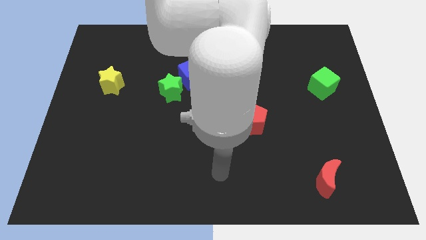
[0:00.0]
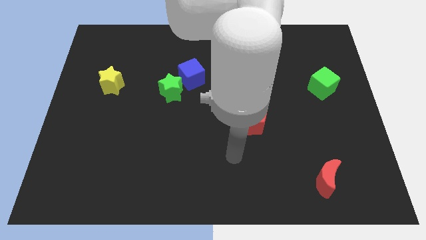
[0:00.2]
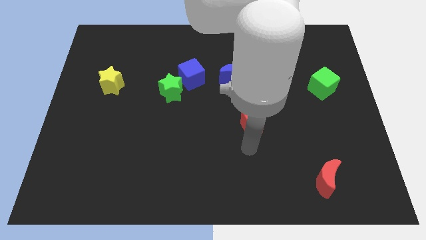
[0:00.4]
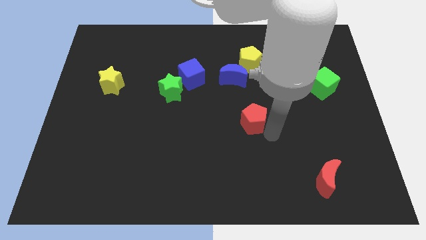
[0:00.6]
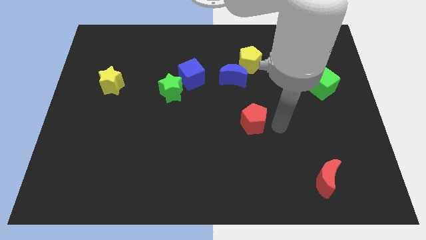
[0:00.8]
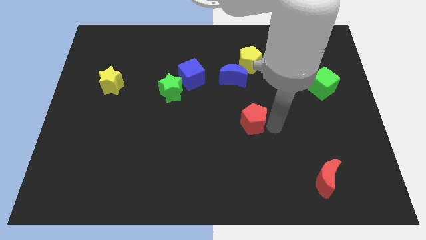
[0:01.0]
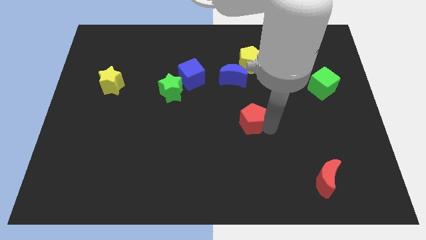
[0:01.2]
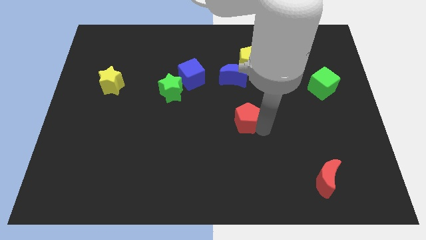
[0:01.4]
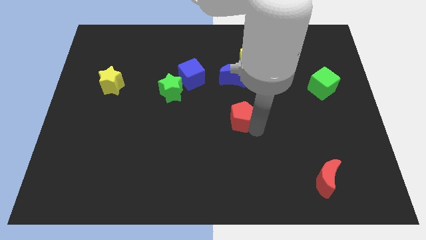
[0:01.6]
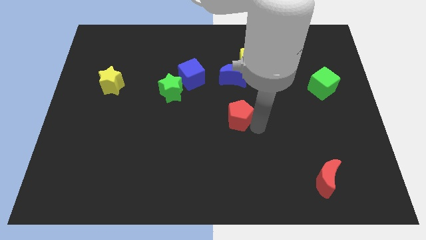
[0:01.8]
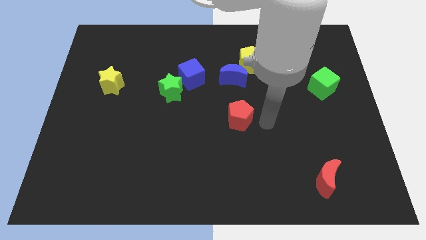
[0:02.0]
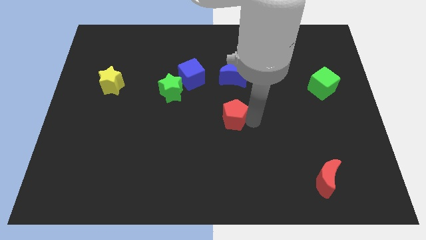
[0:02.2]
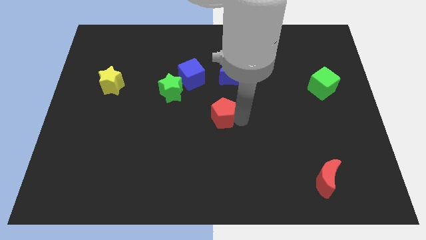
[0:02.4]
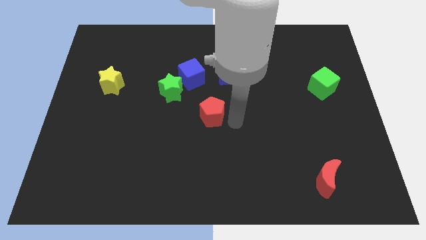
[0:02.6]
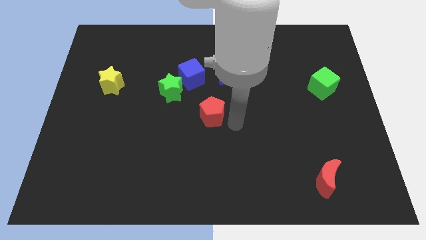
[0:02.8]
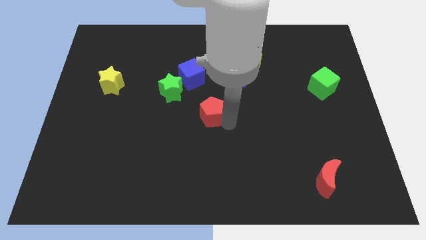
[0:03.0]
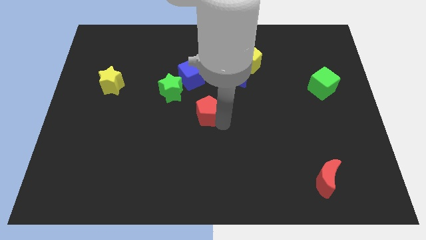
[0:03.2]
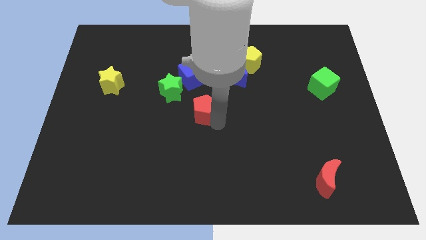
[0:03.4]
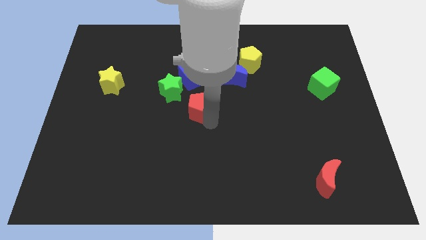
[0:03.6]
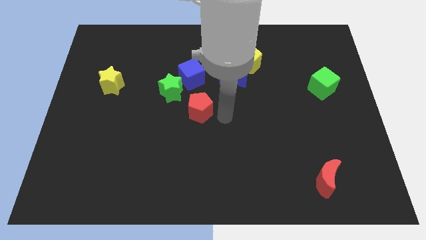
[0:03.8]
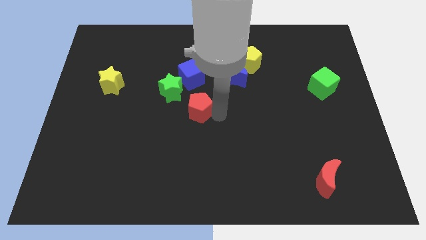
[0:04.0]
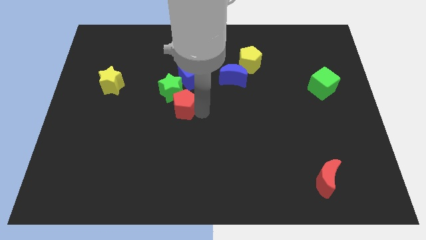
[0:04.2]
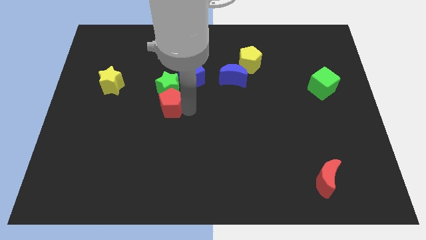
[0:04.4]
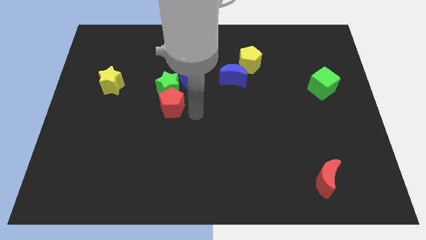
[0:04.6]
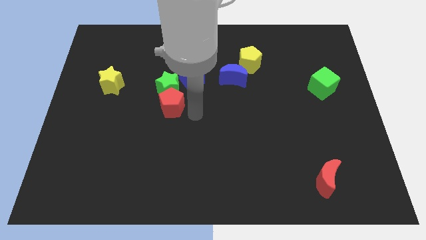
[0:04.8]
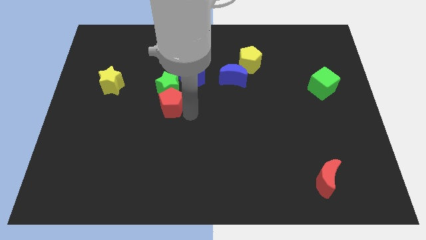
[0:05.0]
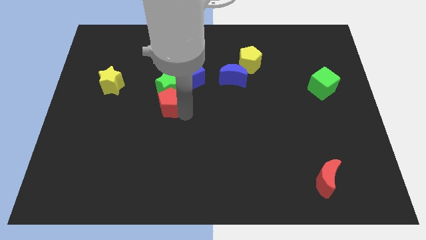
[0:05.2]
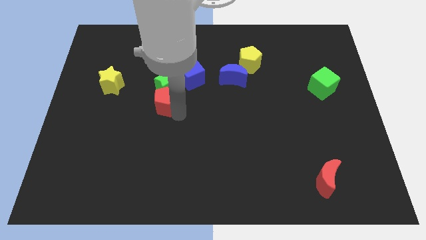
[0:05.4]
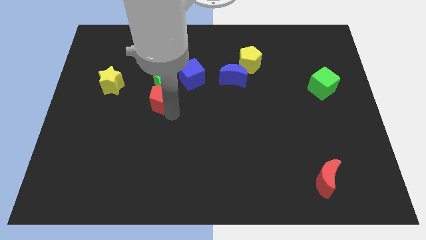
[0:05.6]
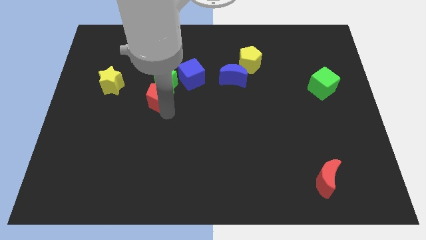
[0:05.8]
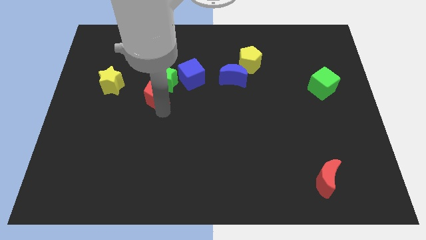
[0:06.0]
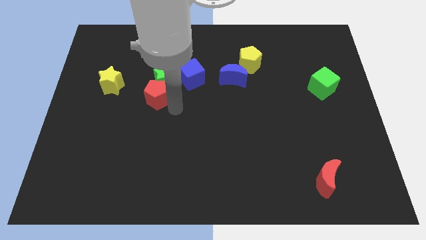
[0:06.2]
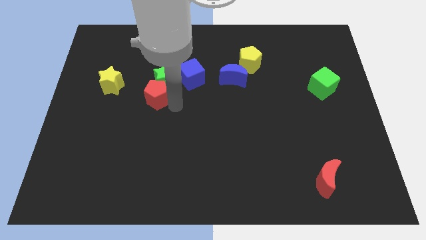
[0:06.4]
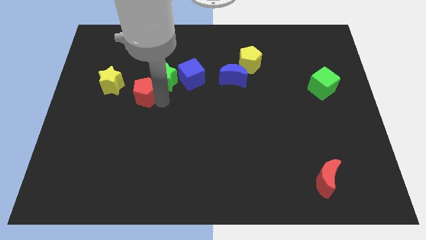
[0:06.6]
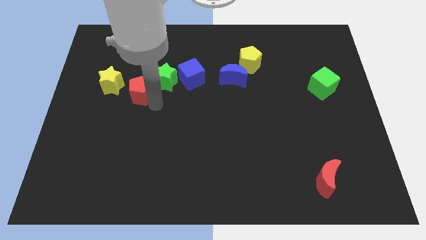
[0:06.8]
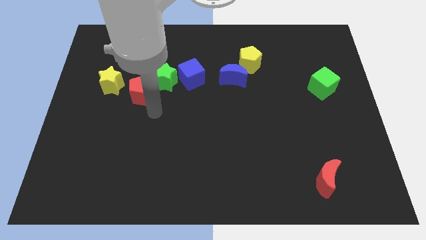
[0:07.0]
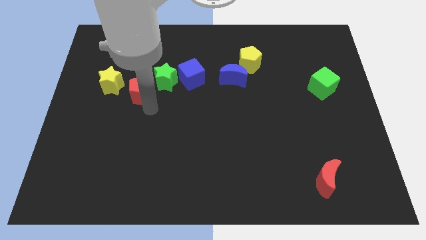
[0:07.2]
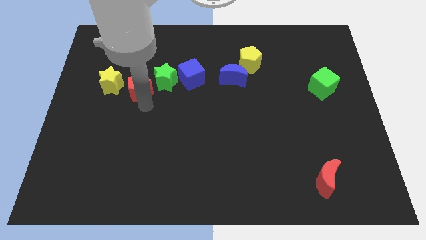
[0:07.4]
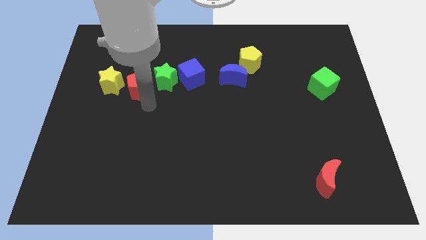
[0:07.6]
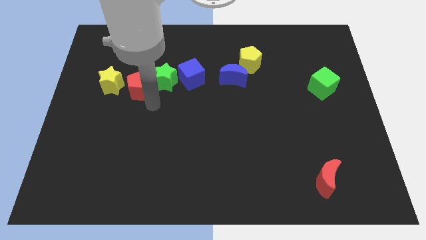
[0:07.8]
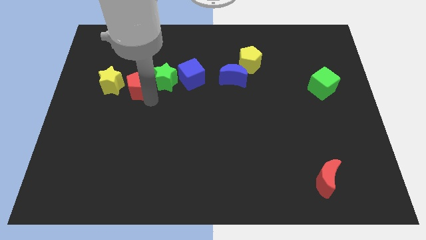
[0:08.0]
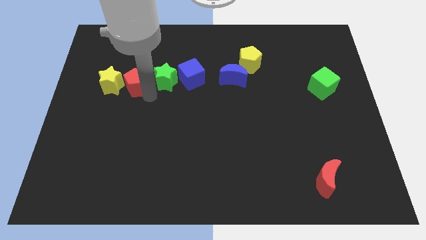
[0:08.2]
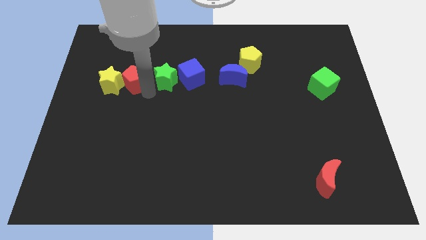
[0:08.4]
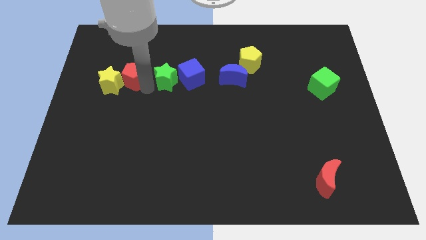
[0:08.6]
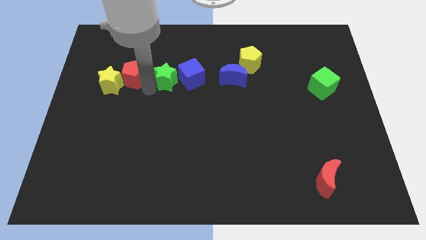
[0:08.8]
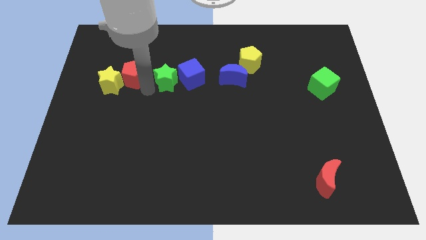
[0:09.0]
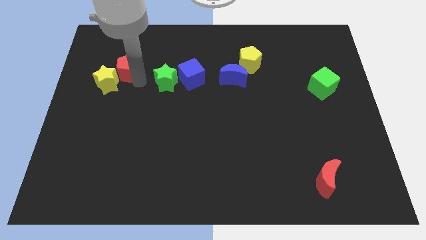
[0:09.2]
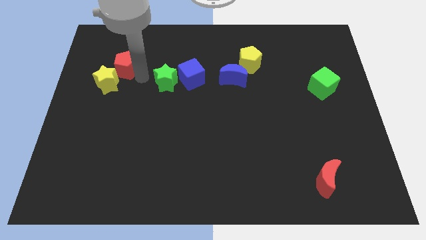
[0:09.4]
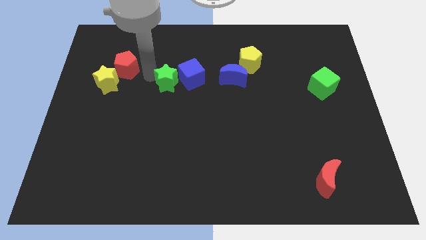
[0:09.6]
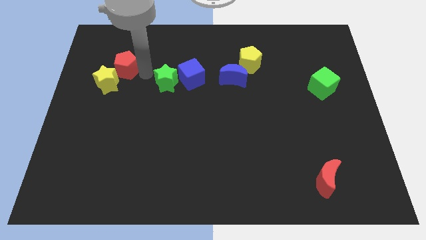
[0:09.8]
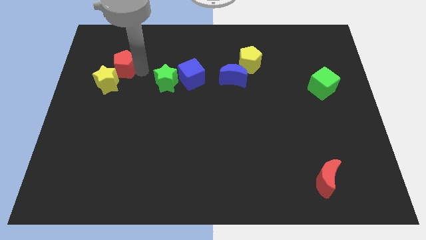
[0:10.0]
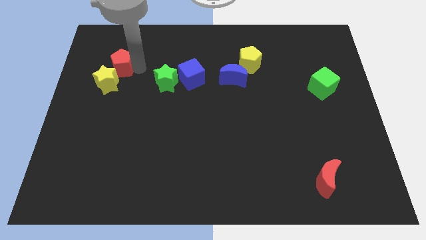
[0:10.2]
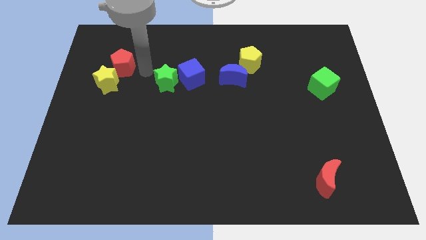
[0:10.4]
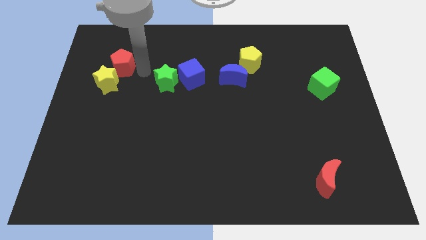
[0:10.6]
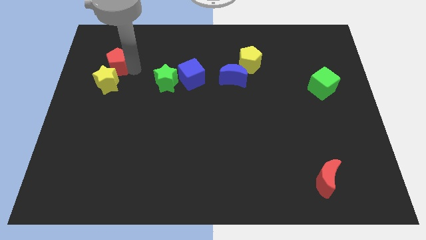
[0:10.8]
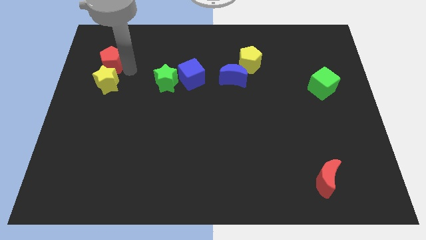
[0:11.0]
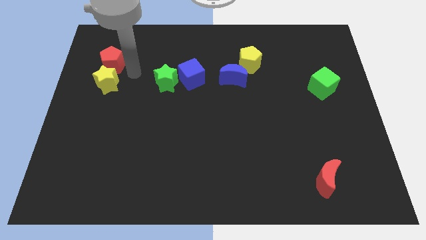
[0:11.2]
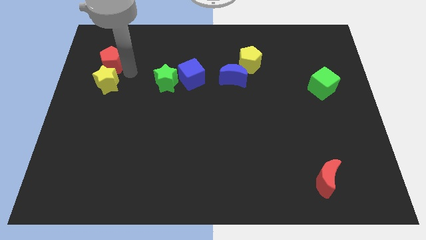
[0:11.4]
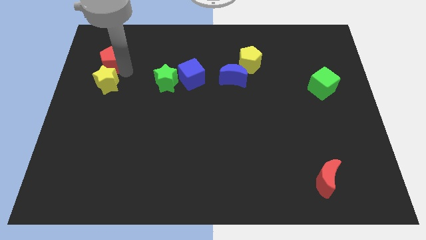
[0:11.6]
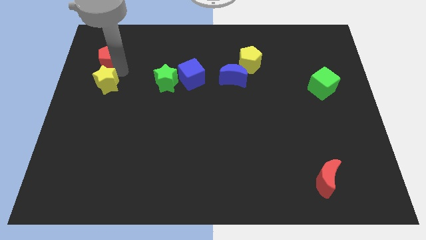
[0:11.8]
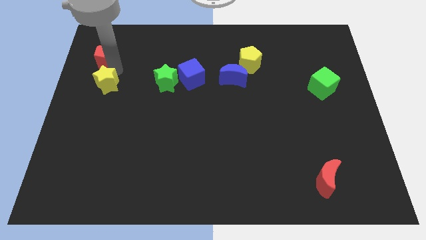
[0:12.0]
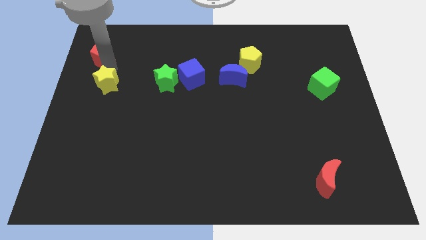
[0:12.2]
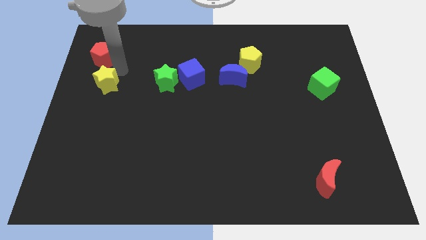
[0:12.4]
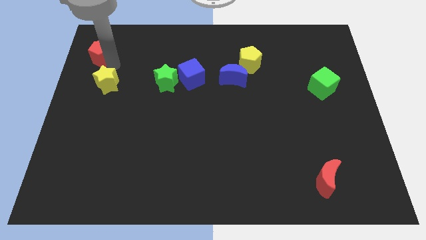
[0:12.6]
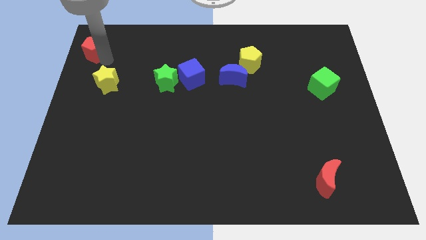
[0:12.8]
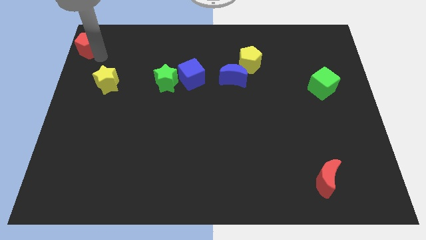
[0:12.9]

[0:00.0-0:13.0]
put the red pentagon to the upper left corner
